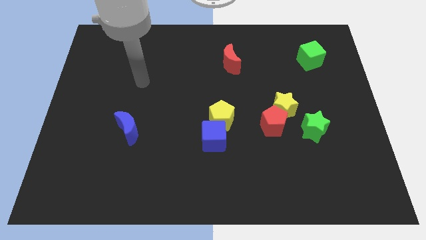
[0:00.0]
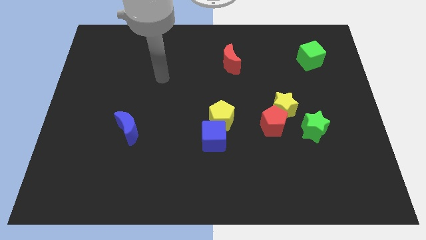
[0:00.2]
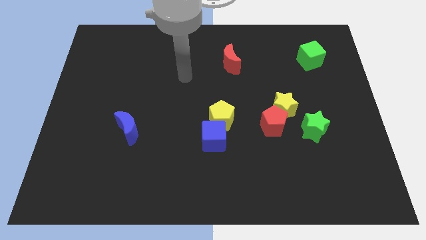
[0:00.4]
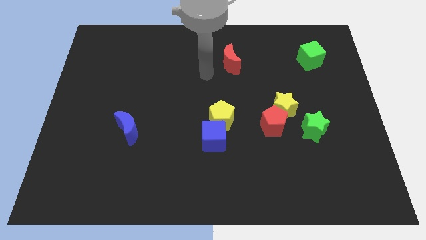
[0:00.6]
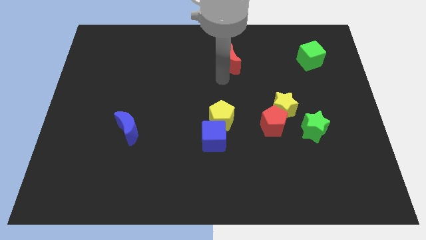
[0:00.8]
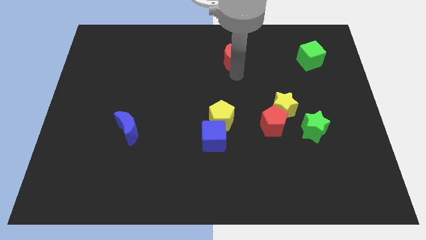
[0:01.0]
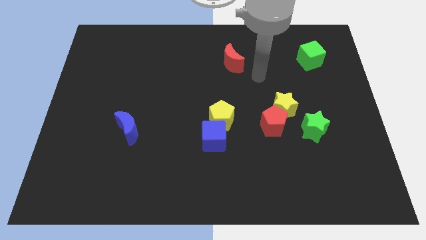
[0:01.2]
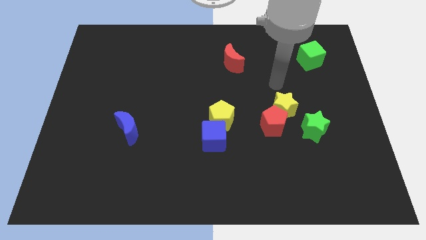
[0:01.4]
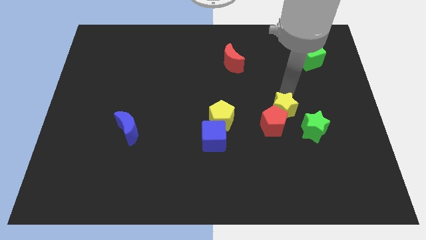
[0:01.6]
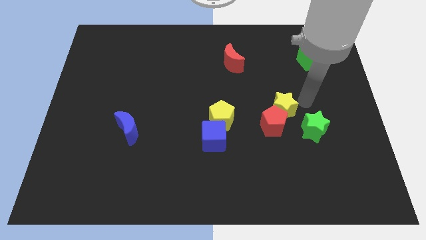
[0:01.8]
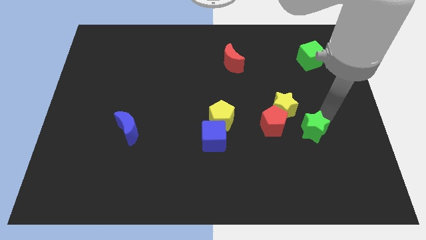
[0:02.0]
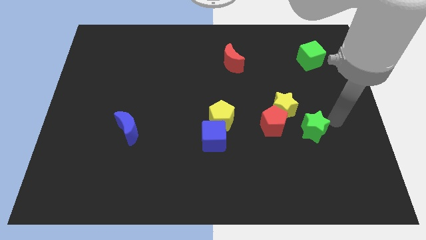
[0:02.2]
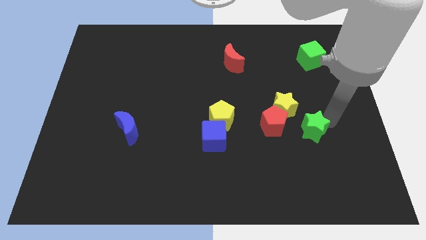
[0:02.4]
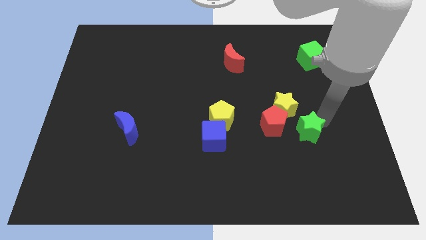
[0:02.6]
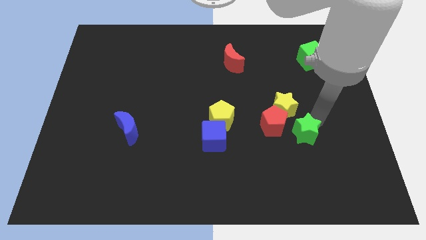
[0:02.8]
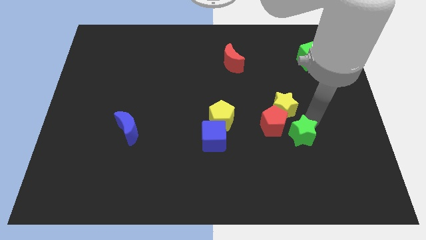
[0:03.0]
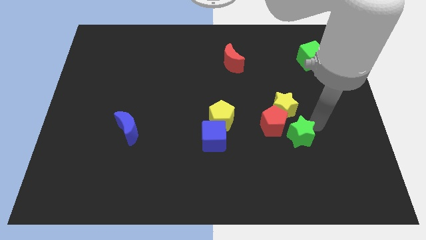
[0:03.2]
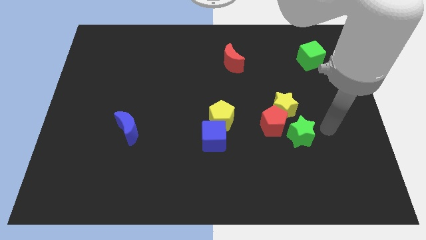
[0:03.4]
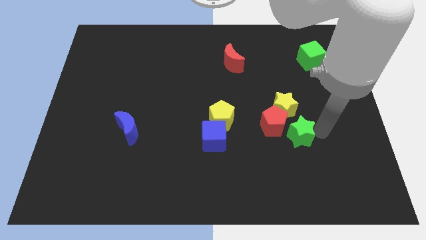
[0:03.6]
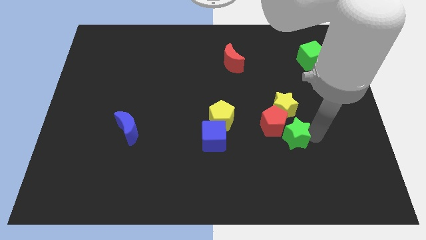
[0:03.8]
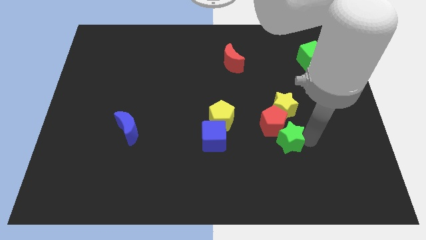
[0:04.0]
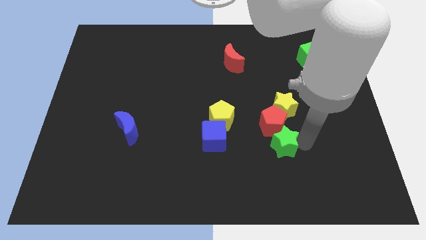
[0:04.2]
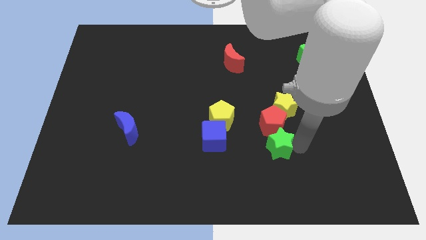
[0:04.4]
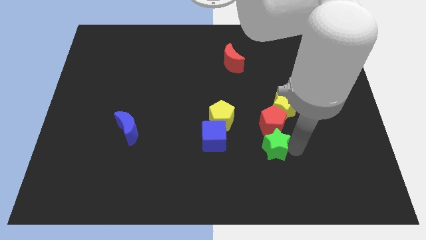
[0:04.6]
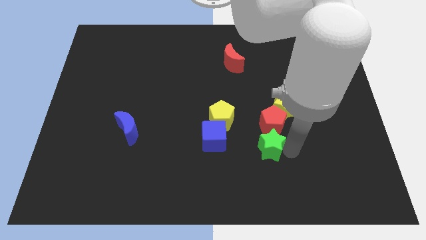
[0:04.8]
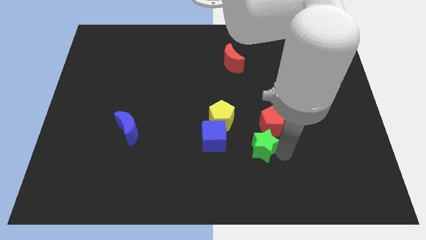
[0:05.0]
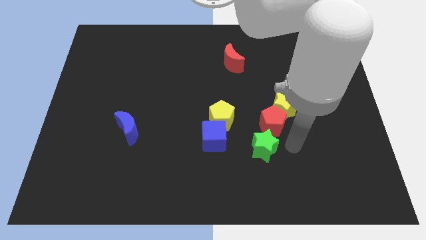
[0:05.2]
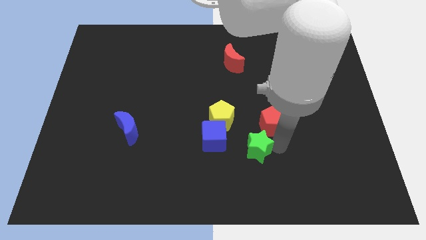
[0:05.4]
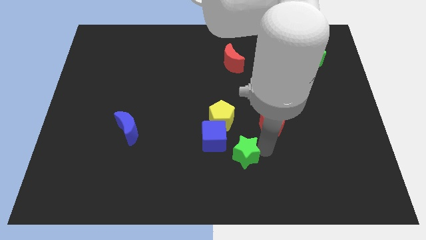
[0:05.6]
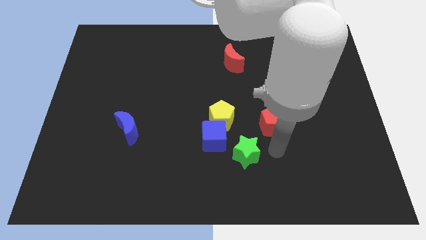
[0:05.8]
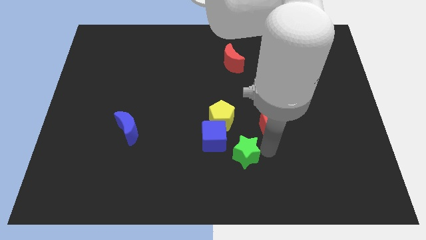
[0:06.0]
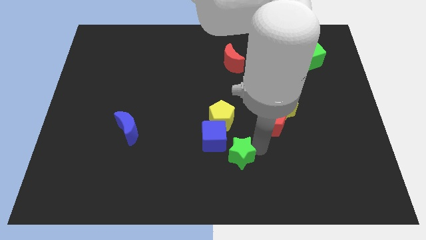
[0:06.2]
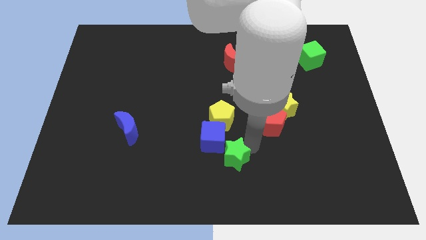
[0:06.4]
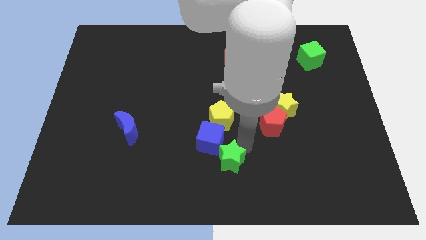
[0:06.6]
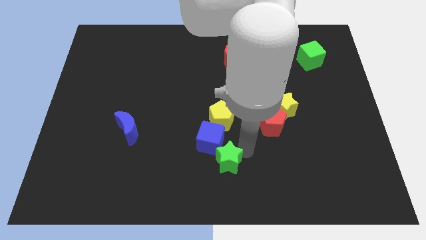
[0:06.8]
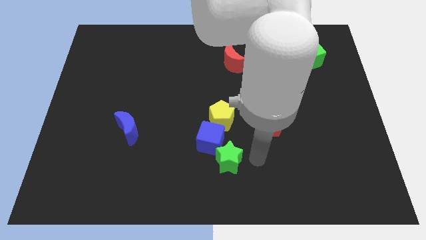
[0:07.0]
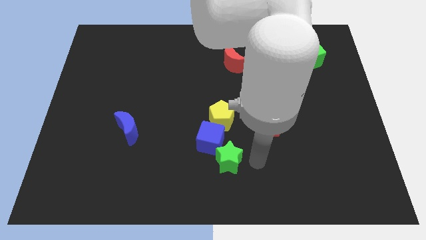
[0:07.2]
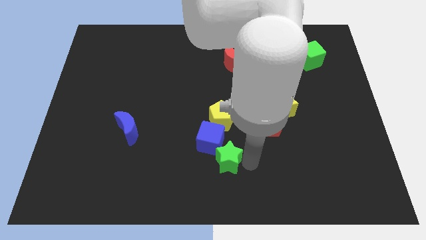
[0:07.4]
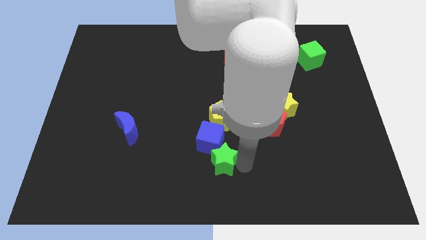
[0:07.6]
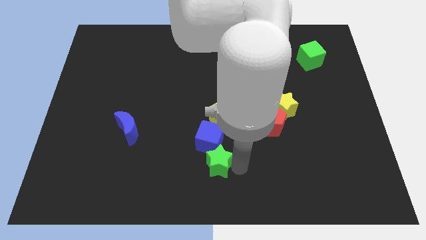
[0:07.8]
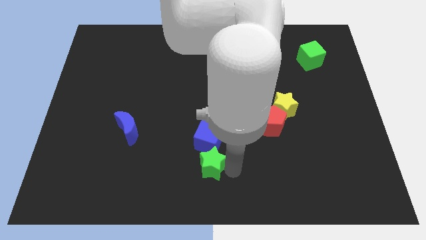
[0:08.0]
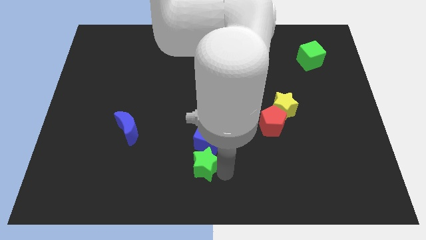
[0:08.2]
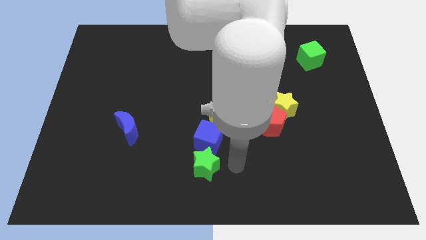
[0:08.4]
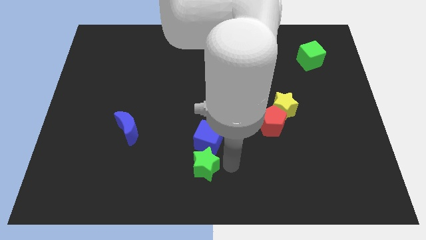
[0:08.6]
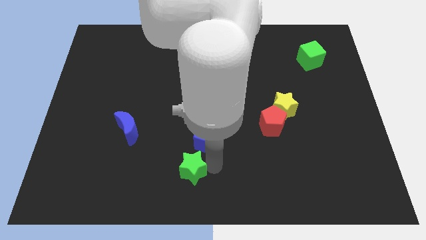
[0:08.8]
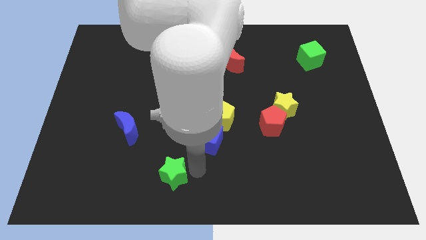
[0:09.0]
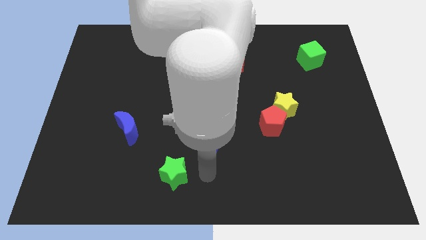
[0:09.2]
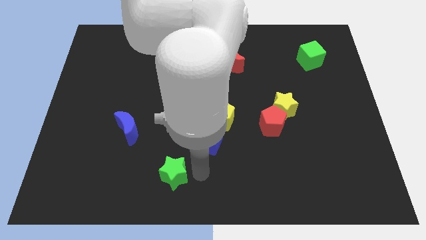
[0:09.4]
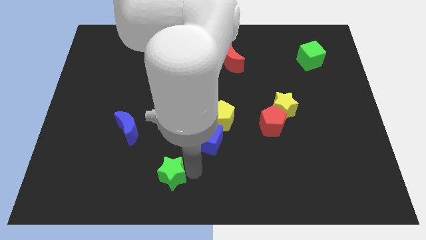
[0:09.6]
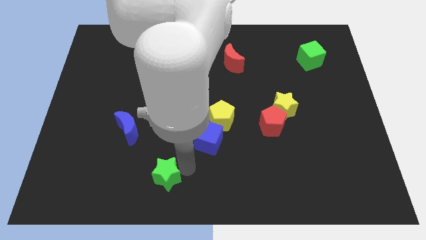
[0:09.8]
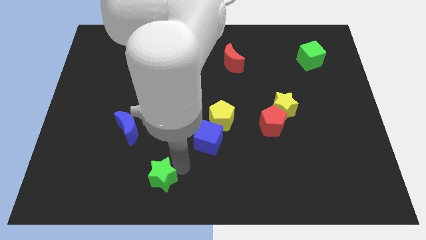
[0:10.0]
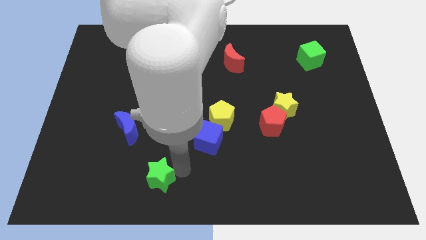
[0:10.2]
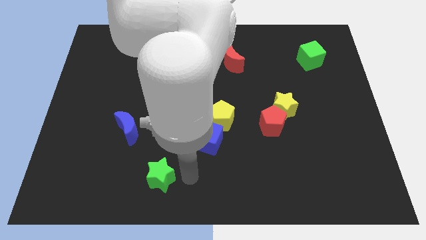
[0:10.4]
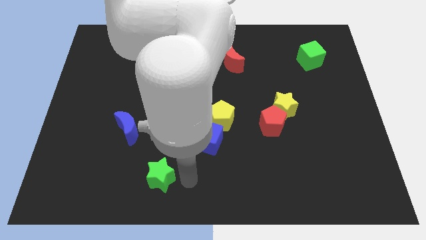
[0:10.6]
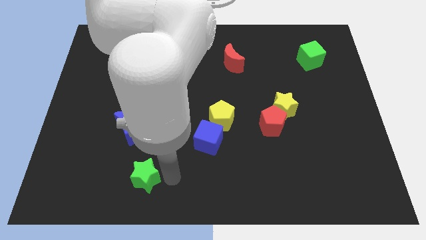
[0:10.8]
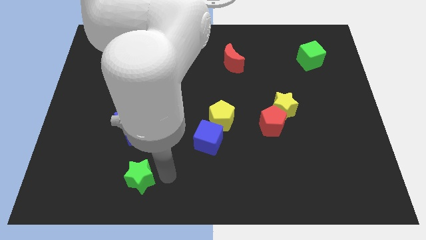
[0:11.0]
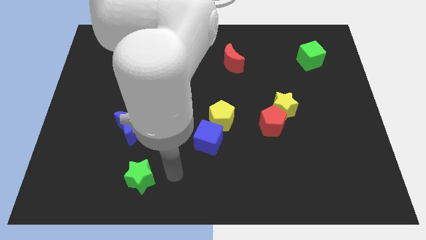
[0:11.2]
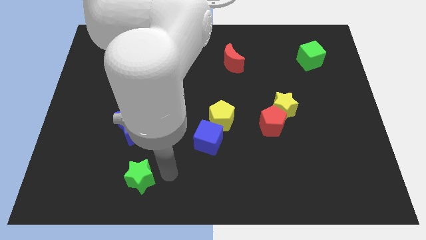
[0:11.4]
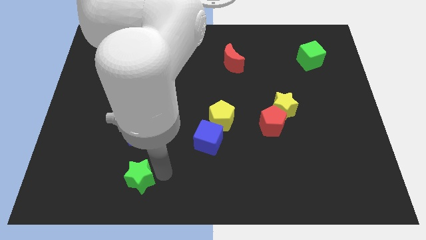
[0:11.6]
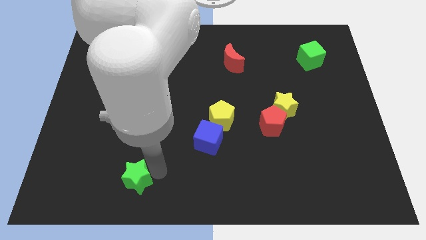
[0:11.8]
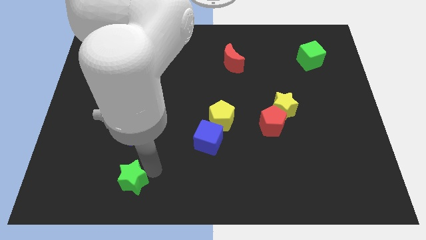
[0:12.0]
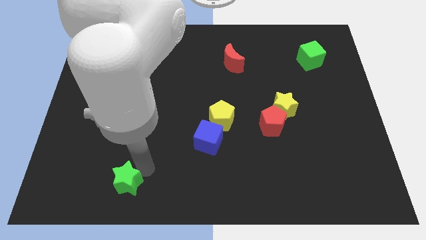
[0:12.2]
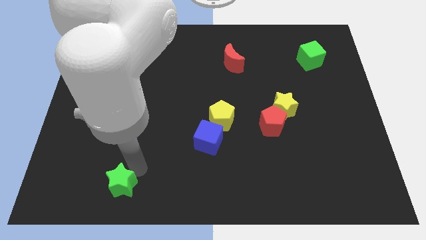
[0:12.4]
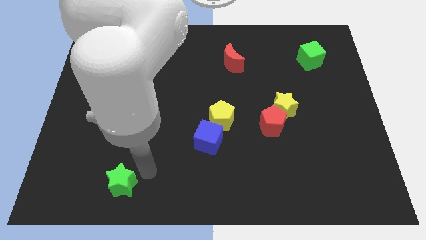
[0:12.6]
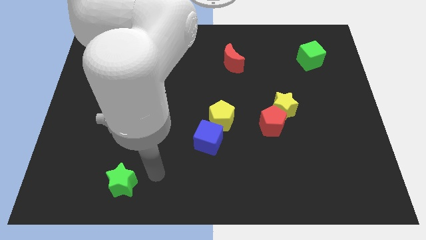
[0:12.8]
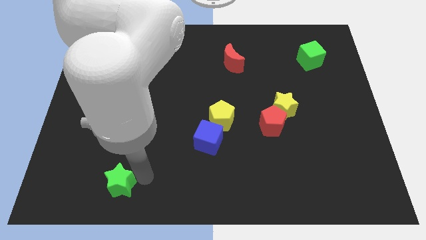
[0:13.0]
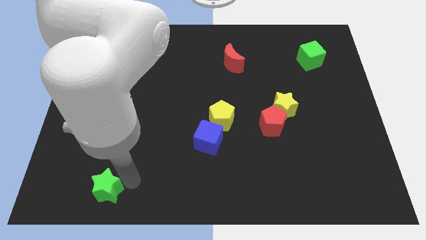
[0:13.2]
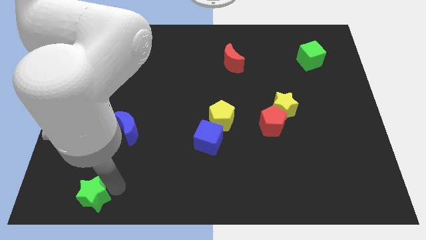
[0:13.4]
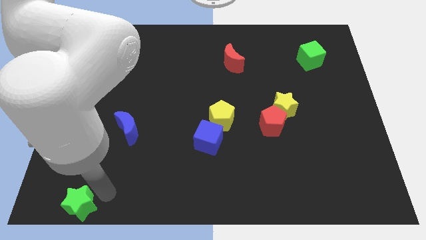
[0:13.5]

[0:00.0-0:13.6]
push the green star to the bottom left corner
